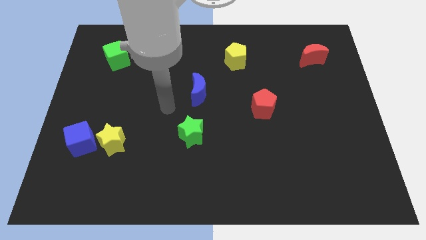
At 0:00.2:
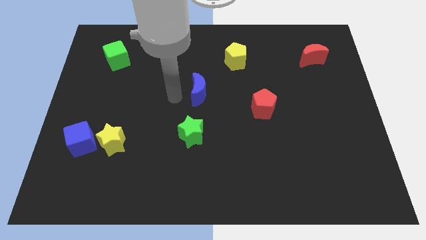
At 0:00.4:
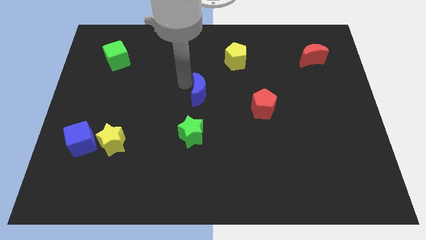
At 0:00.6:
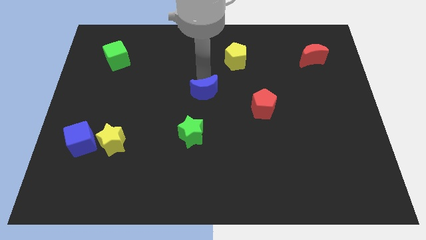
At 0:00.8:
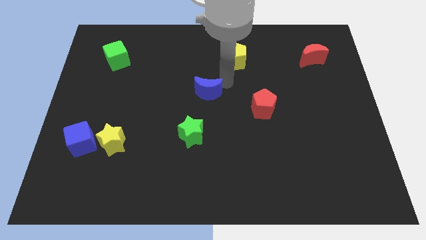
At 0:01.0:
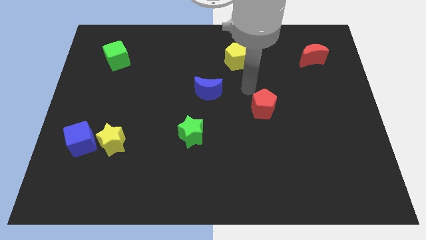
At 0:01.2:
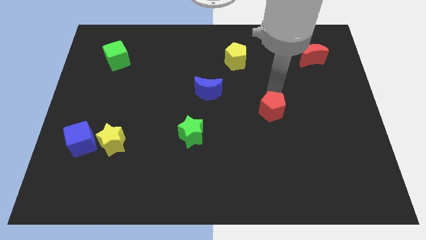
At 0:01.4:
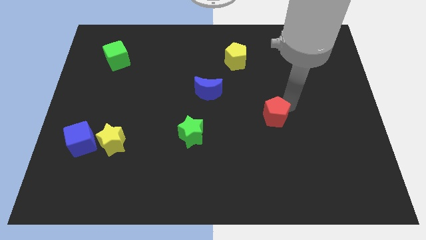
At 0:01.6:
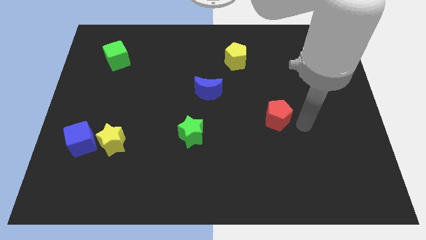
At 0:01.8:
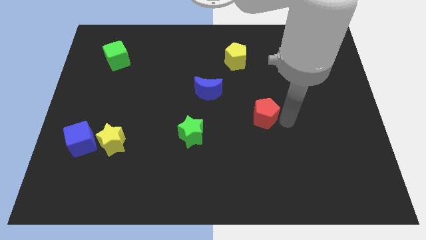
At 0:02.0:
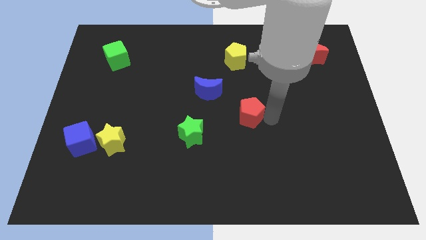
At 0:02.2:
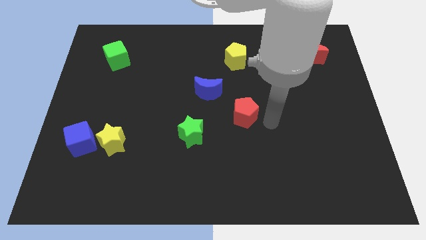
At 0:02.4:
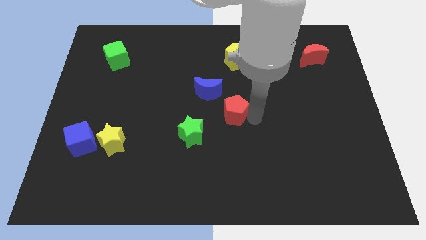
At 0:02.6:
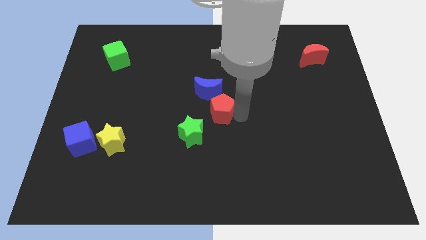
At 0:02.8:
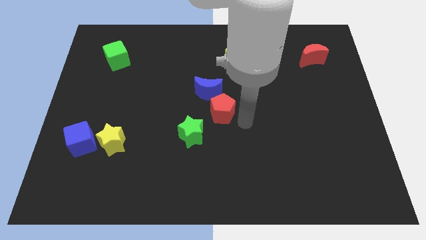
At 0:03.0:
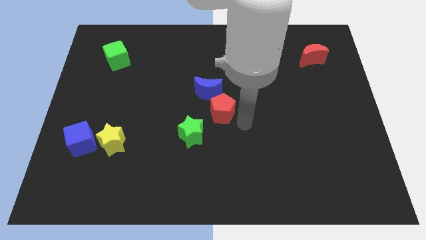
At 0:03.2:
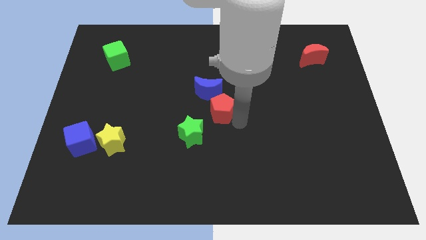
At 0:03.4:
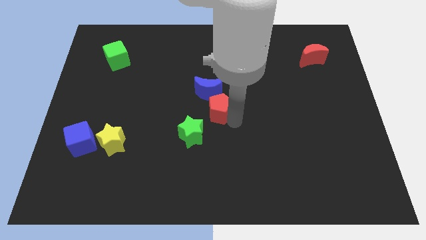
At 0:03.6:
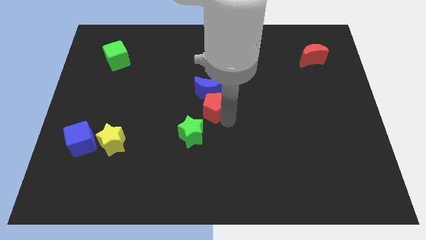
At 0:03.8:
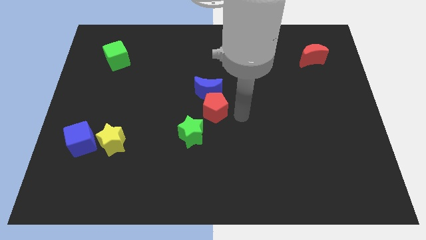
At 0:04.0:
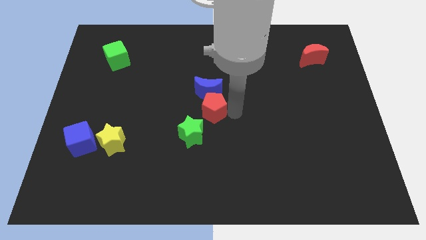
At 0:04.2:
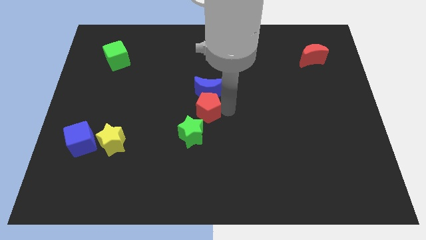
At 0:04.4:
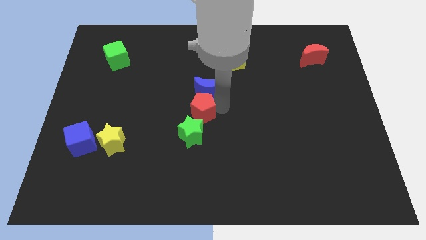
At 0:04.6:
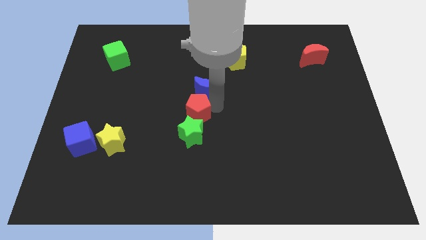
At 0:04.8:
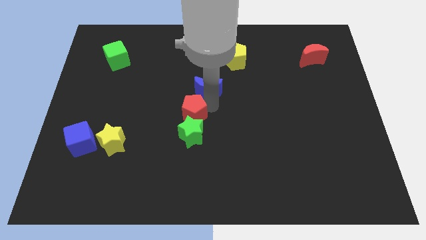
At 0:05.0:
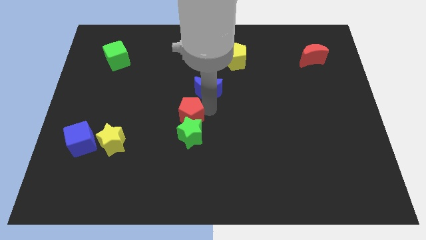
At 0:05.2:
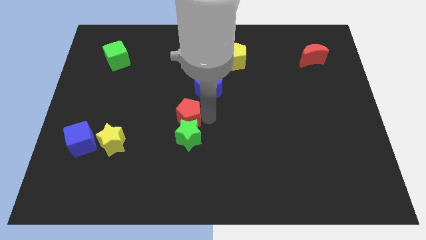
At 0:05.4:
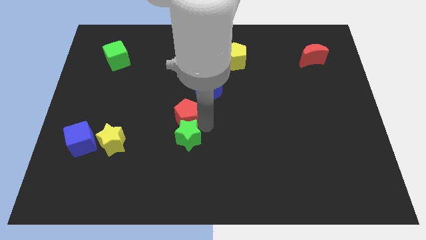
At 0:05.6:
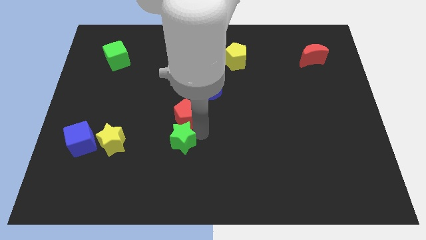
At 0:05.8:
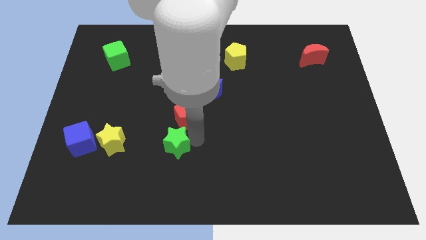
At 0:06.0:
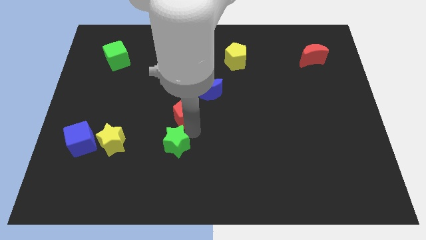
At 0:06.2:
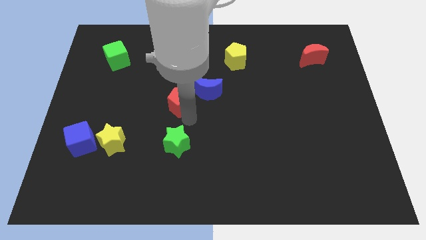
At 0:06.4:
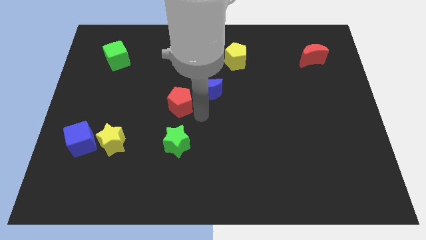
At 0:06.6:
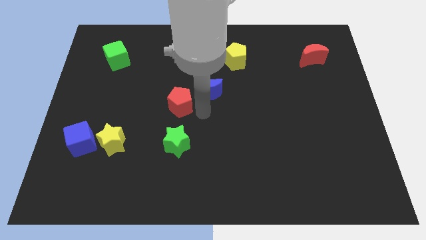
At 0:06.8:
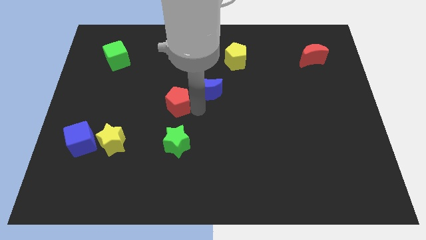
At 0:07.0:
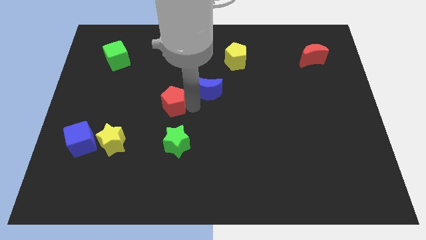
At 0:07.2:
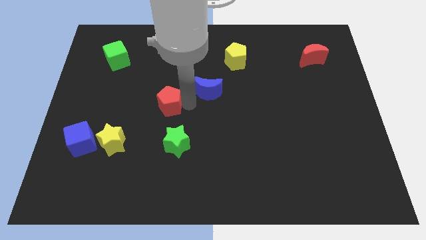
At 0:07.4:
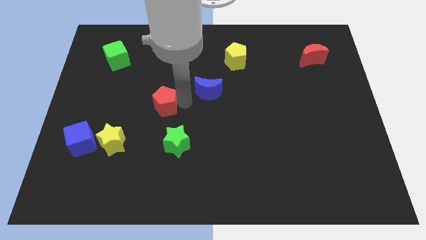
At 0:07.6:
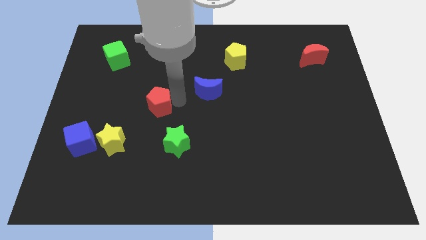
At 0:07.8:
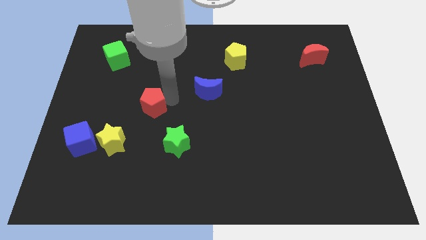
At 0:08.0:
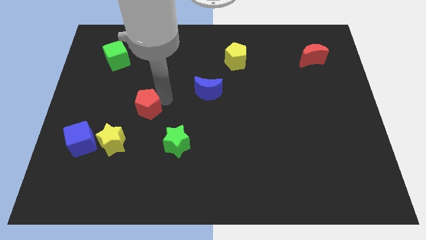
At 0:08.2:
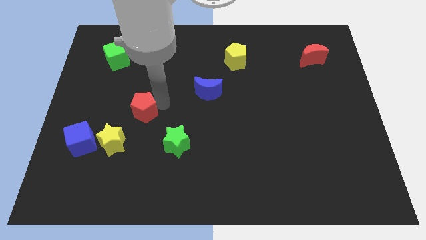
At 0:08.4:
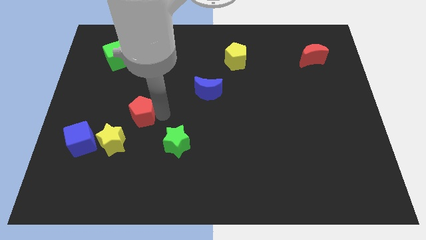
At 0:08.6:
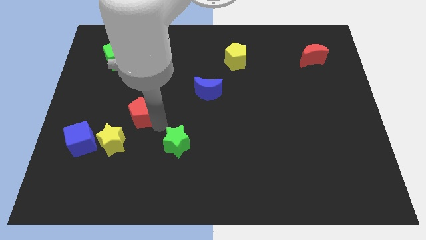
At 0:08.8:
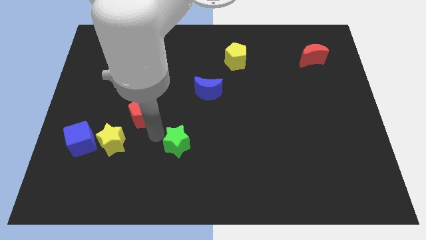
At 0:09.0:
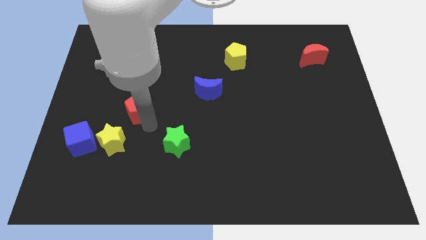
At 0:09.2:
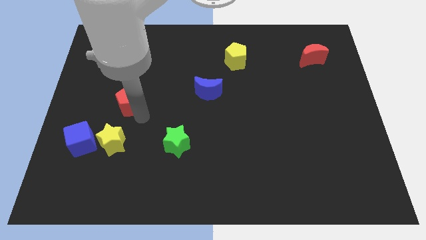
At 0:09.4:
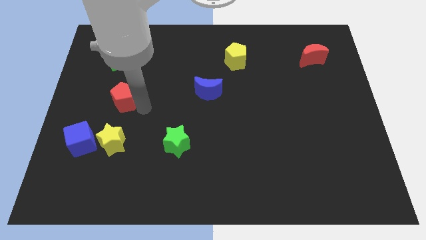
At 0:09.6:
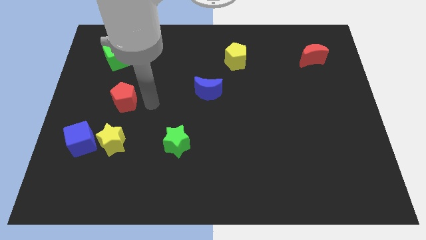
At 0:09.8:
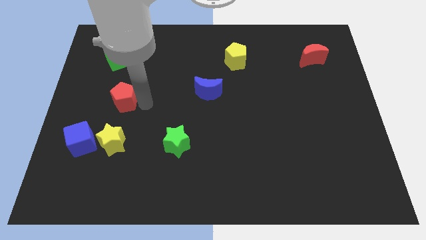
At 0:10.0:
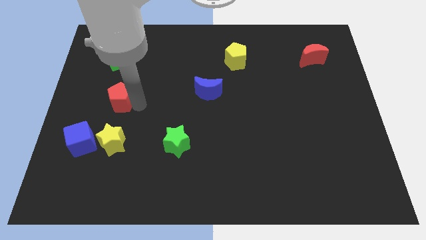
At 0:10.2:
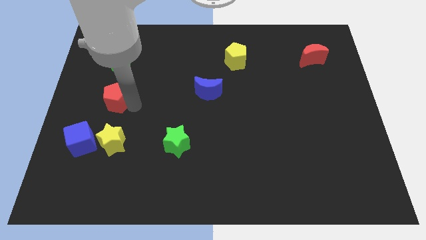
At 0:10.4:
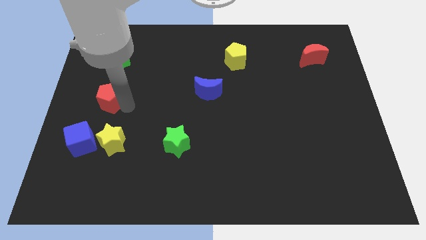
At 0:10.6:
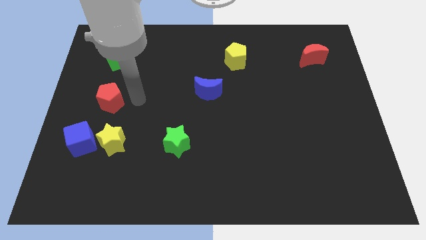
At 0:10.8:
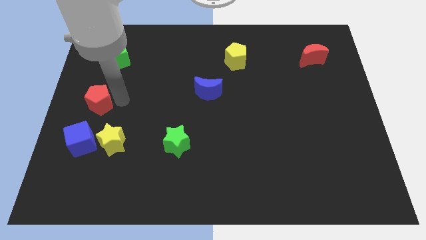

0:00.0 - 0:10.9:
put the red pentagon to the left side of the board
